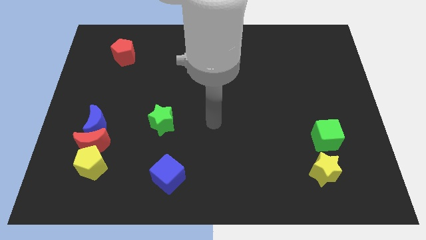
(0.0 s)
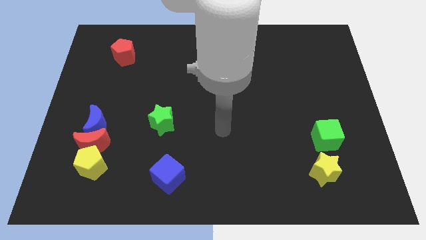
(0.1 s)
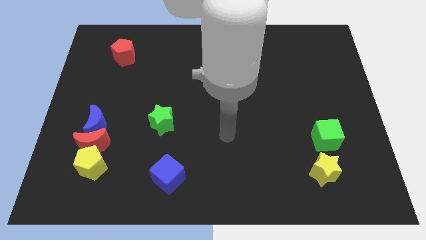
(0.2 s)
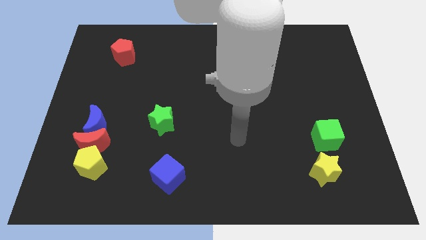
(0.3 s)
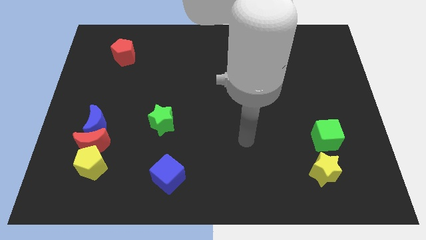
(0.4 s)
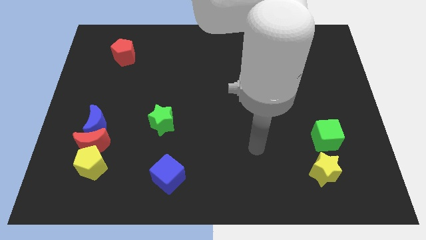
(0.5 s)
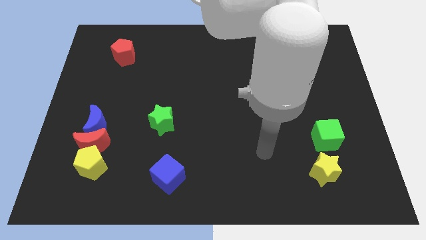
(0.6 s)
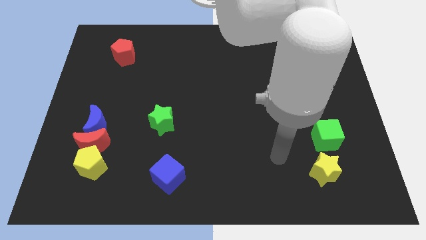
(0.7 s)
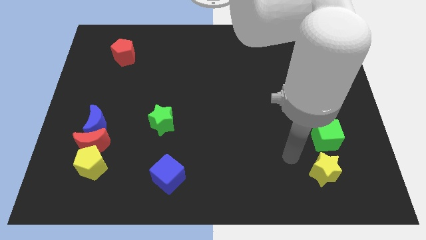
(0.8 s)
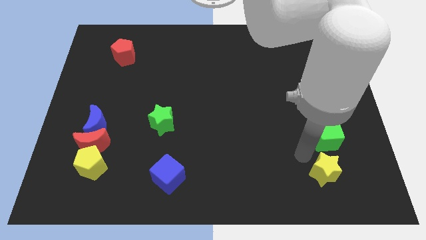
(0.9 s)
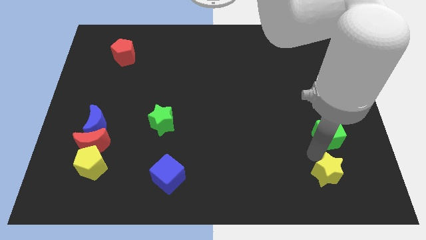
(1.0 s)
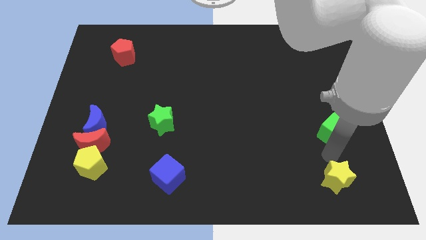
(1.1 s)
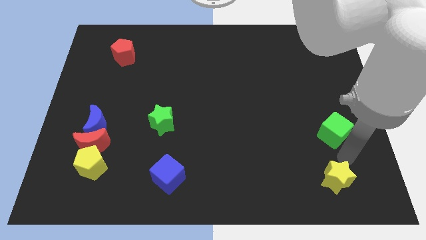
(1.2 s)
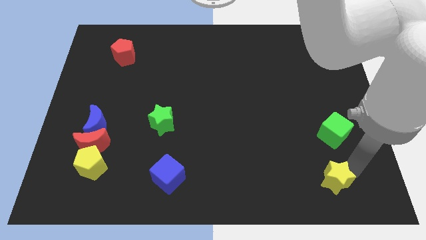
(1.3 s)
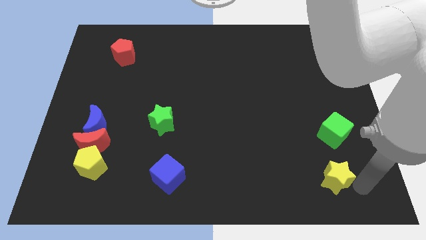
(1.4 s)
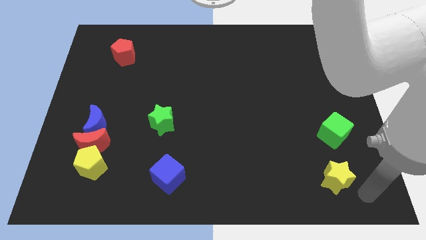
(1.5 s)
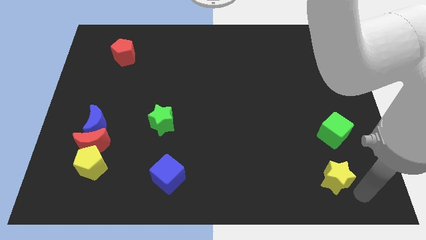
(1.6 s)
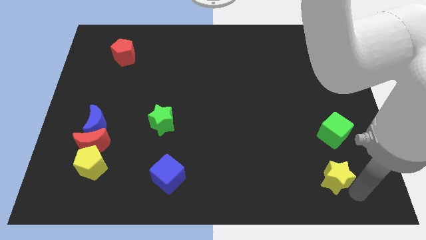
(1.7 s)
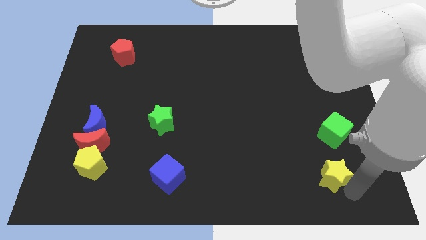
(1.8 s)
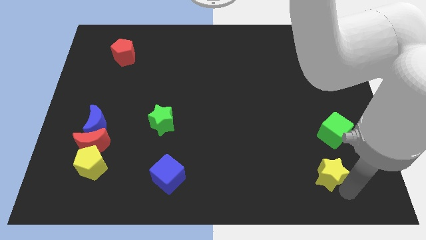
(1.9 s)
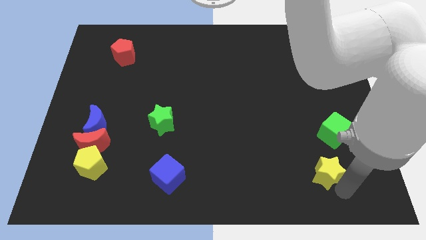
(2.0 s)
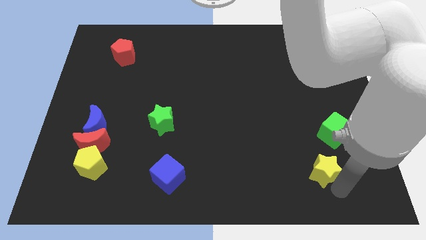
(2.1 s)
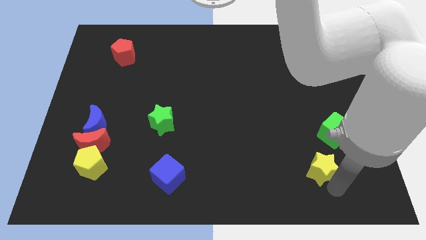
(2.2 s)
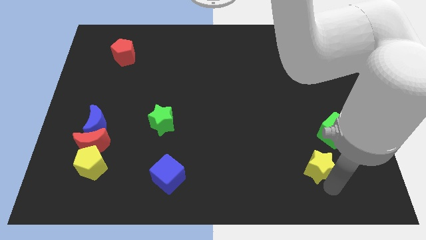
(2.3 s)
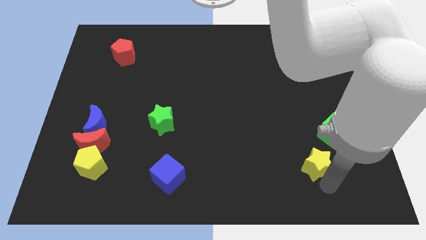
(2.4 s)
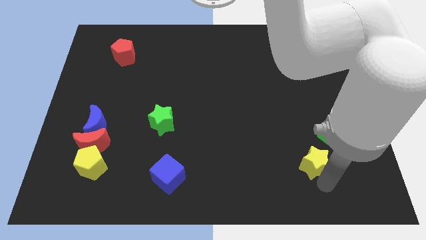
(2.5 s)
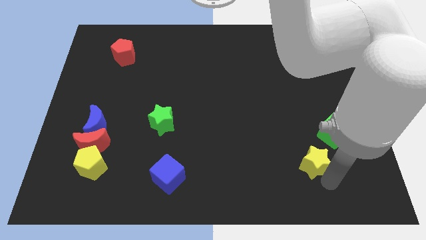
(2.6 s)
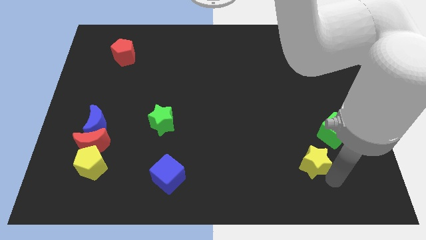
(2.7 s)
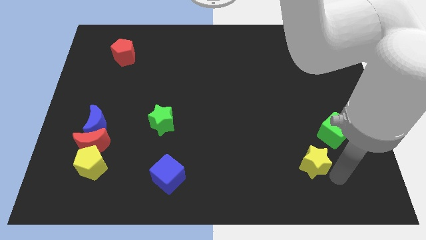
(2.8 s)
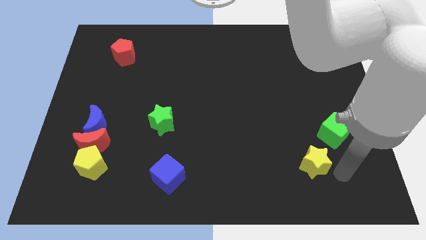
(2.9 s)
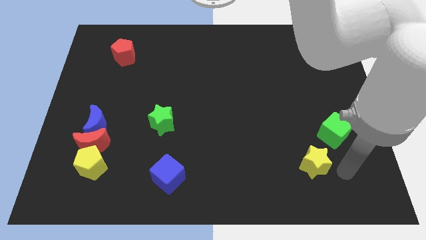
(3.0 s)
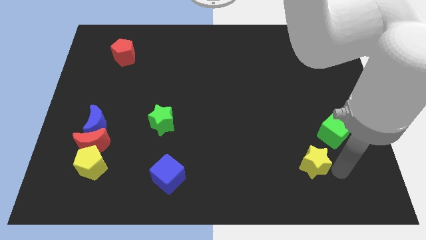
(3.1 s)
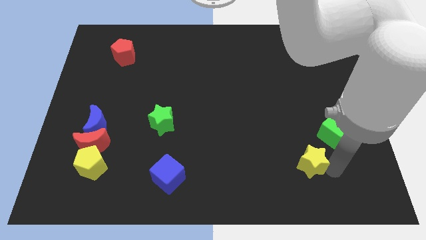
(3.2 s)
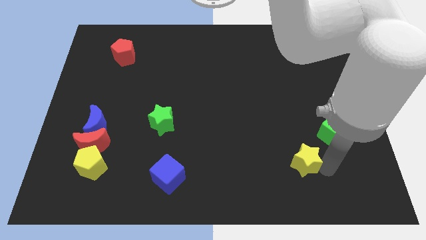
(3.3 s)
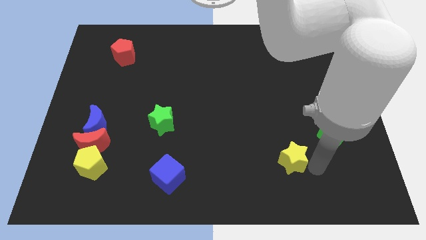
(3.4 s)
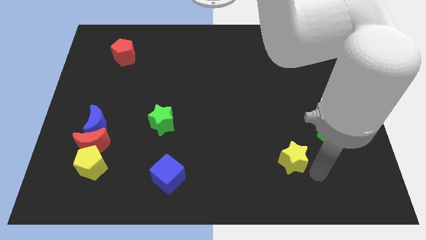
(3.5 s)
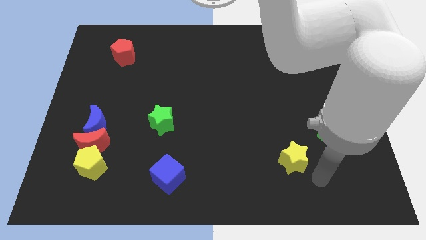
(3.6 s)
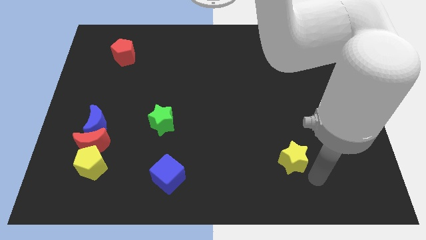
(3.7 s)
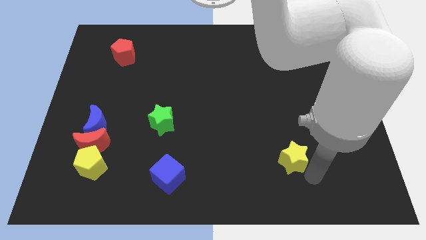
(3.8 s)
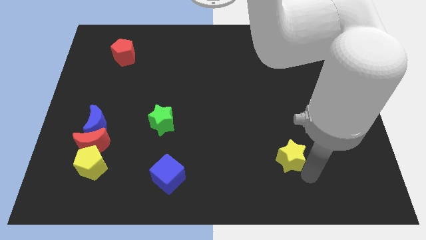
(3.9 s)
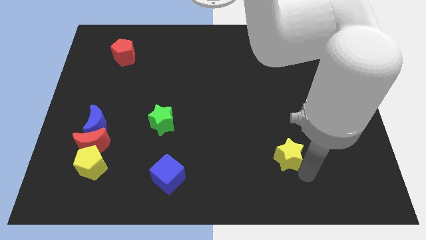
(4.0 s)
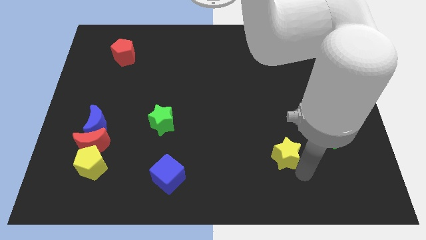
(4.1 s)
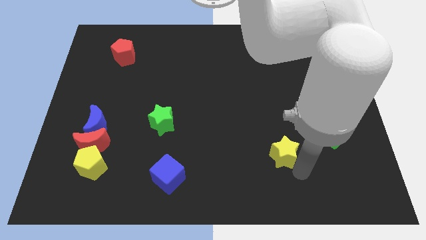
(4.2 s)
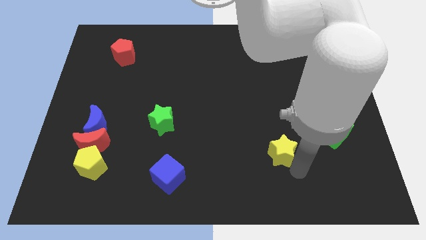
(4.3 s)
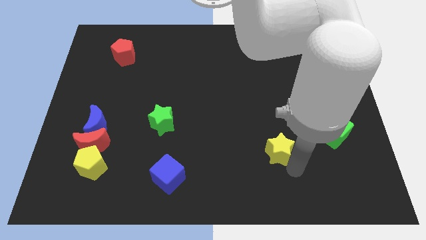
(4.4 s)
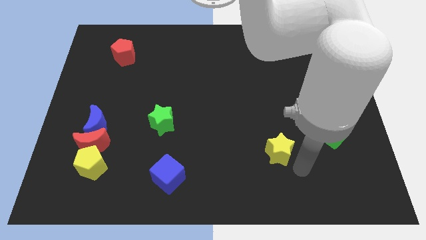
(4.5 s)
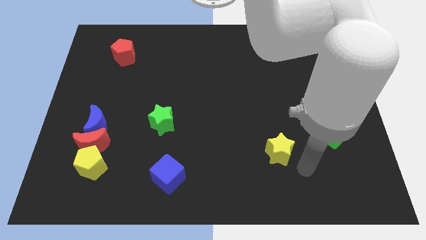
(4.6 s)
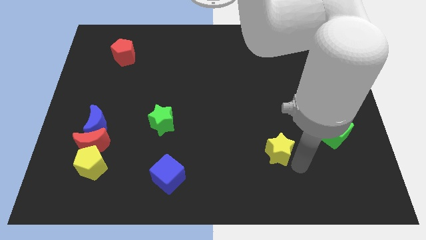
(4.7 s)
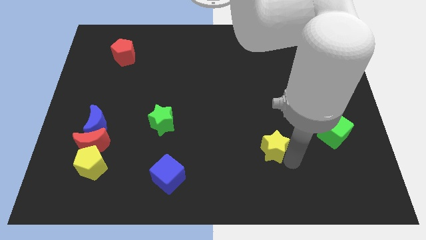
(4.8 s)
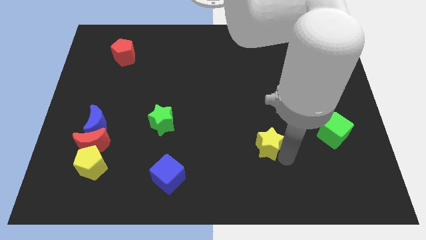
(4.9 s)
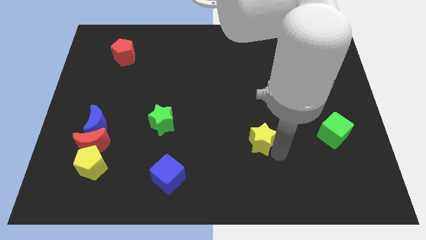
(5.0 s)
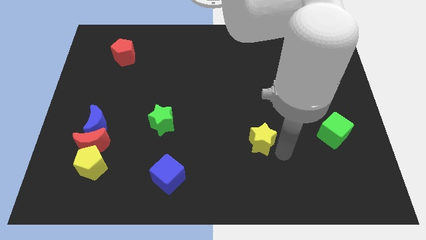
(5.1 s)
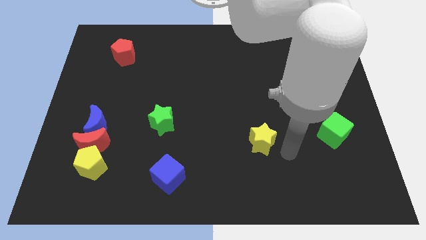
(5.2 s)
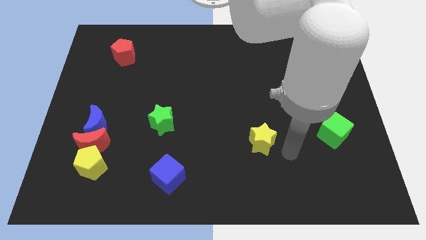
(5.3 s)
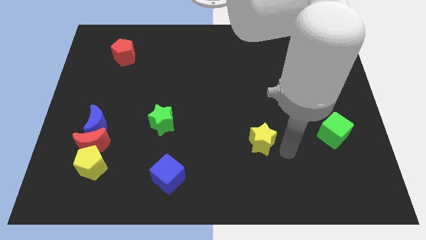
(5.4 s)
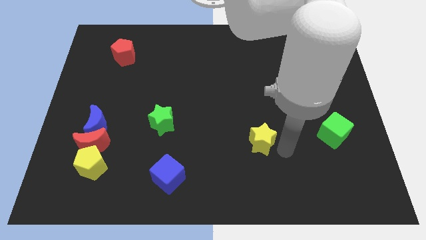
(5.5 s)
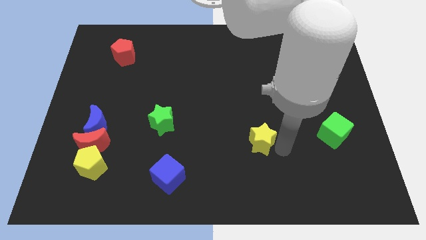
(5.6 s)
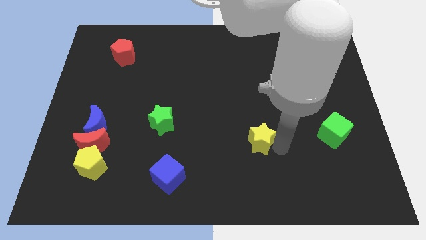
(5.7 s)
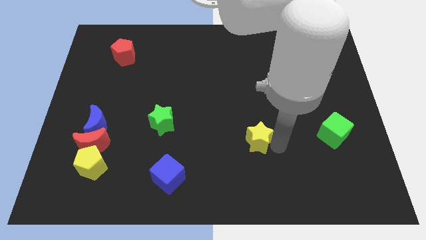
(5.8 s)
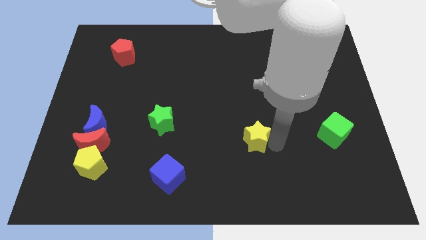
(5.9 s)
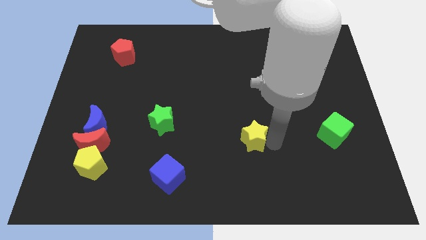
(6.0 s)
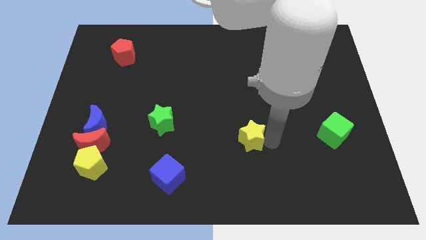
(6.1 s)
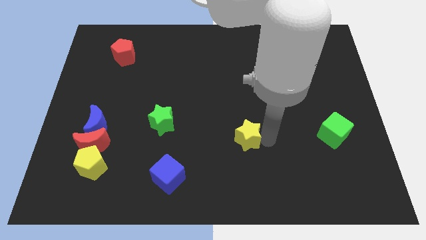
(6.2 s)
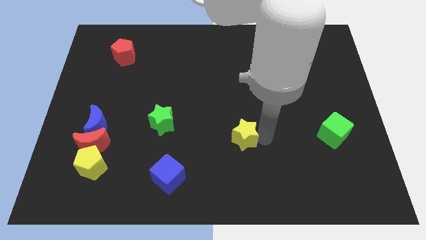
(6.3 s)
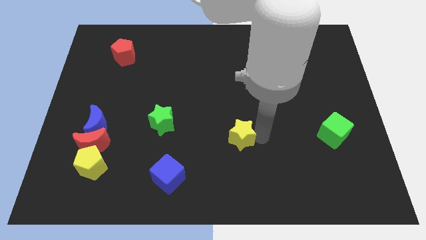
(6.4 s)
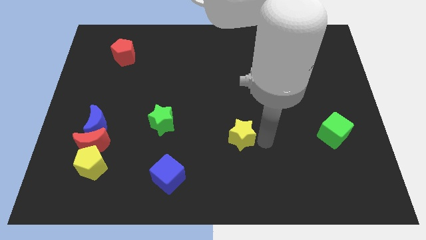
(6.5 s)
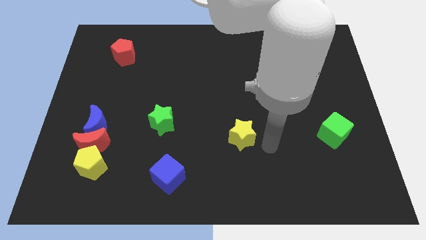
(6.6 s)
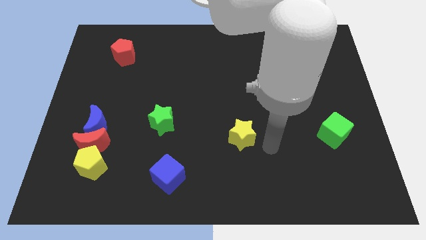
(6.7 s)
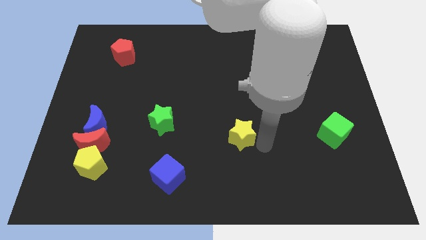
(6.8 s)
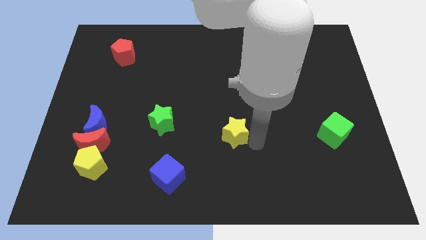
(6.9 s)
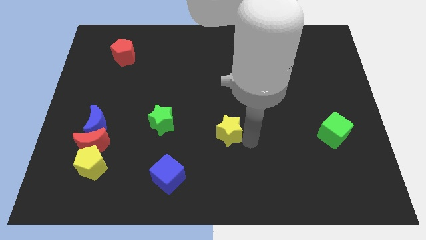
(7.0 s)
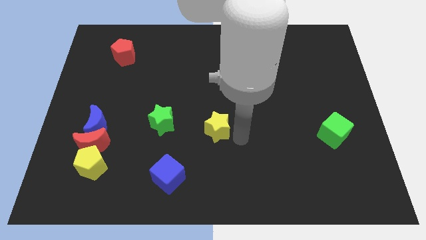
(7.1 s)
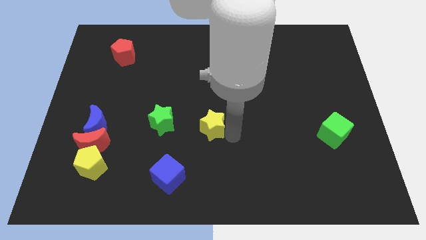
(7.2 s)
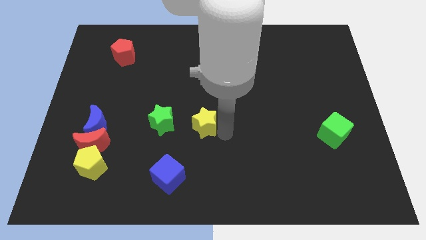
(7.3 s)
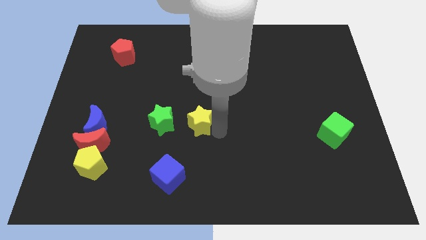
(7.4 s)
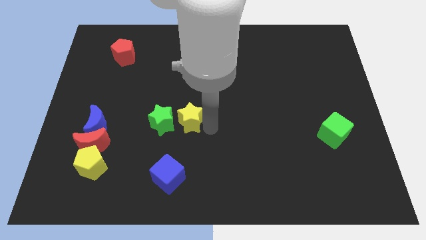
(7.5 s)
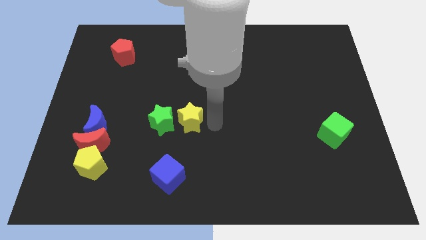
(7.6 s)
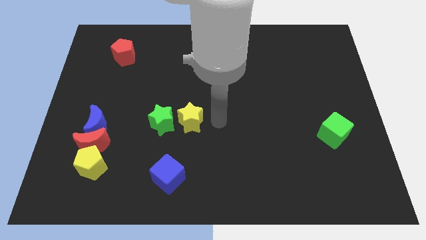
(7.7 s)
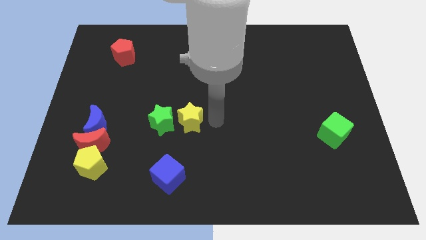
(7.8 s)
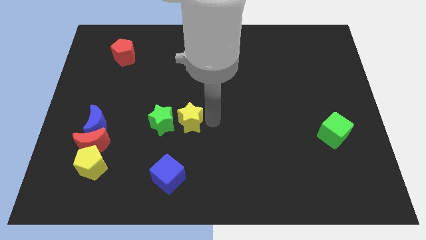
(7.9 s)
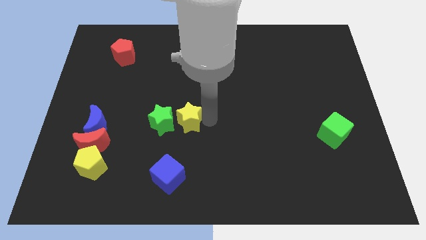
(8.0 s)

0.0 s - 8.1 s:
slide the yellow star to the green star
